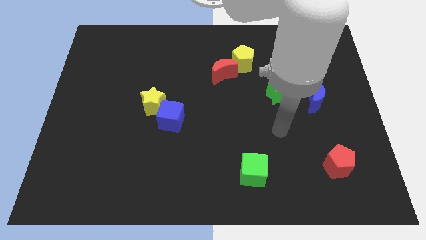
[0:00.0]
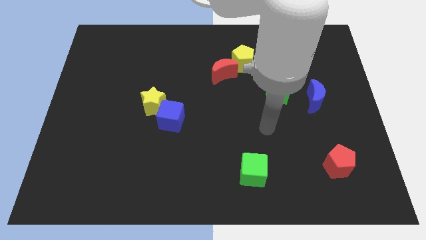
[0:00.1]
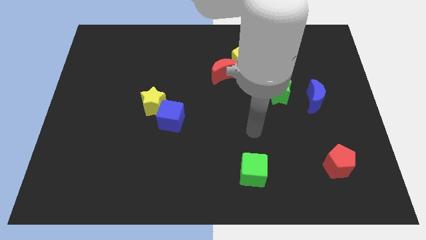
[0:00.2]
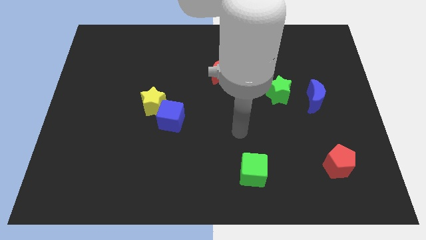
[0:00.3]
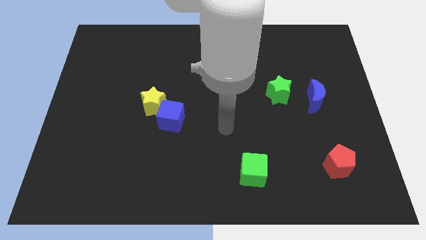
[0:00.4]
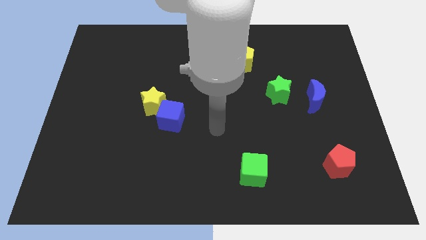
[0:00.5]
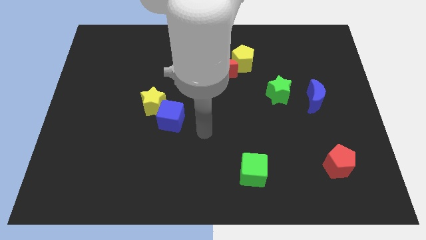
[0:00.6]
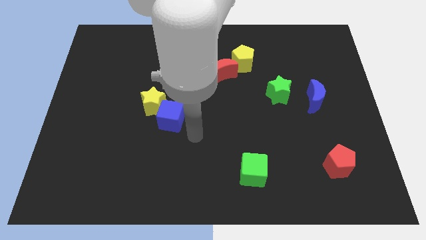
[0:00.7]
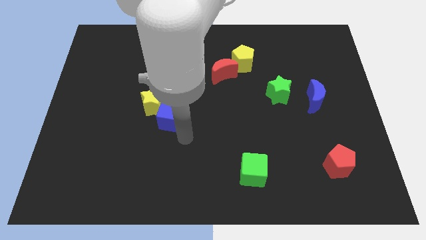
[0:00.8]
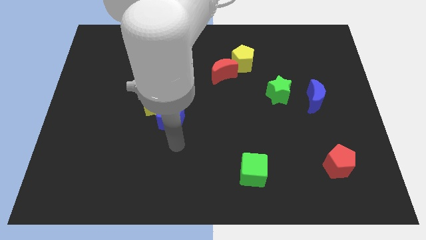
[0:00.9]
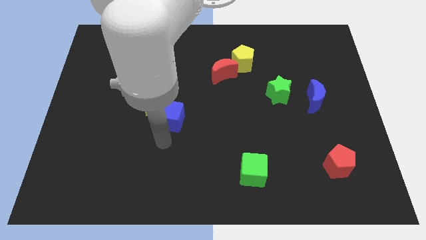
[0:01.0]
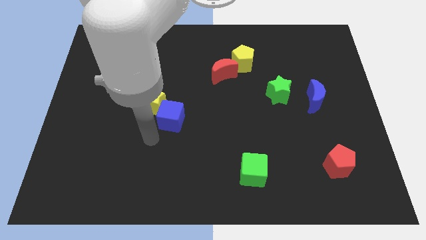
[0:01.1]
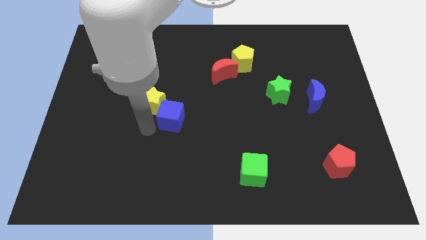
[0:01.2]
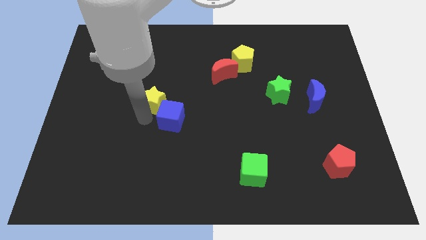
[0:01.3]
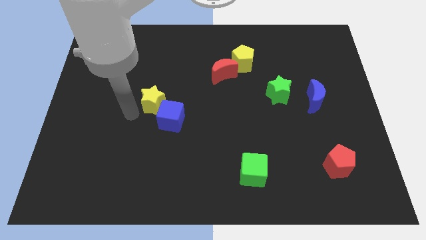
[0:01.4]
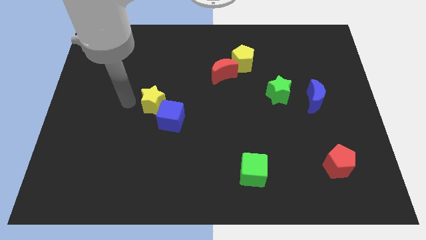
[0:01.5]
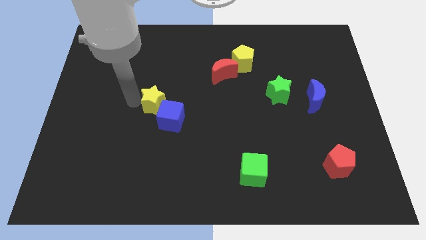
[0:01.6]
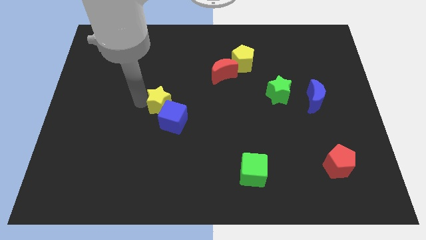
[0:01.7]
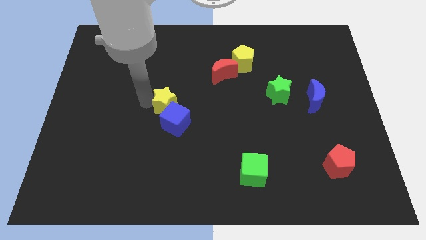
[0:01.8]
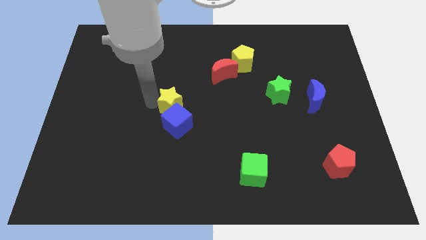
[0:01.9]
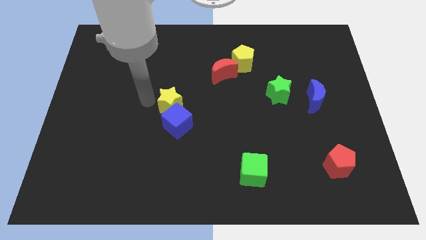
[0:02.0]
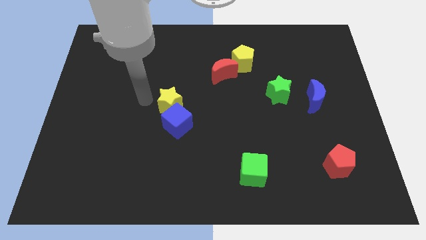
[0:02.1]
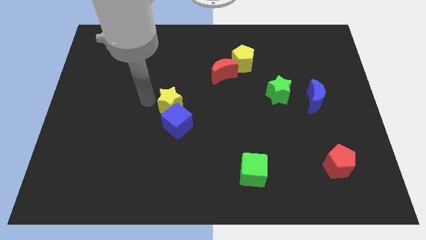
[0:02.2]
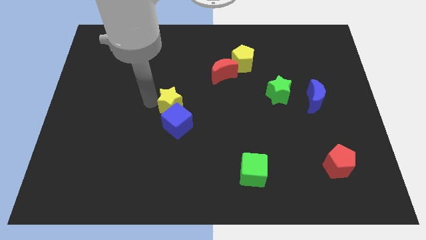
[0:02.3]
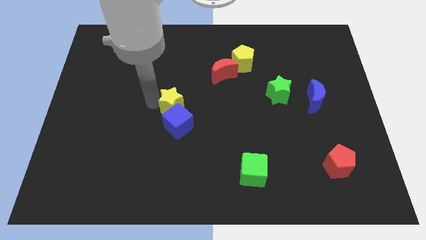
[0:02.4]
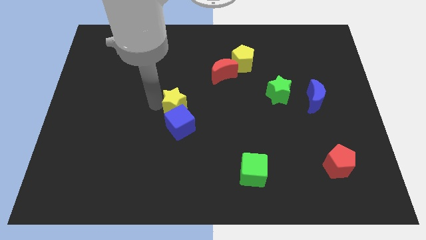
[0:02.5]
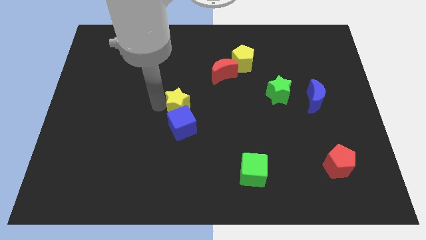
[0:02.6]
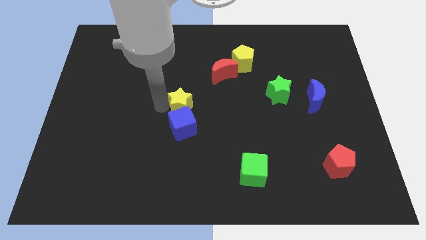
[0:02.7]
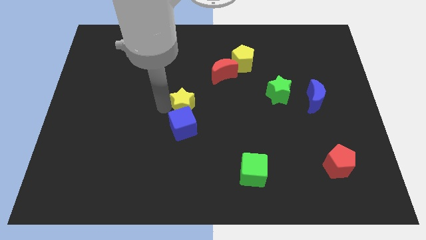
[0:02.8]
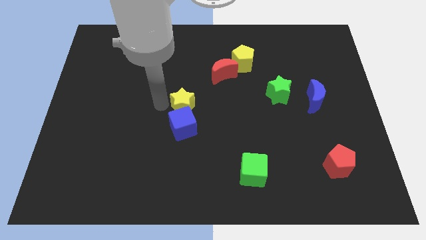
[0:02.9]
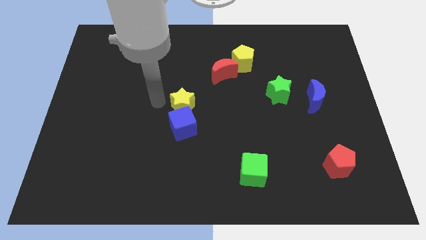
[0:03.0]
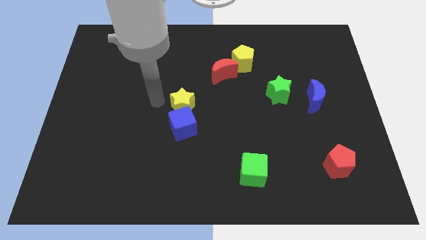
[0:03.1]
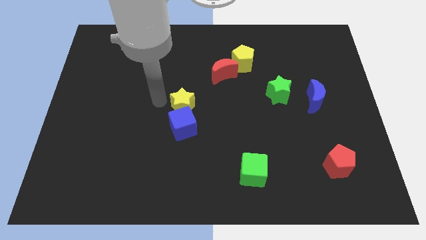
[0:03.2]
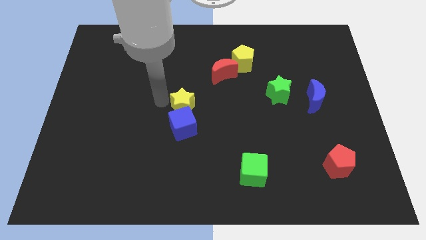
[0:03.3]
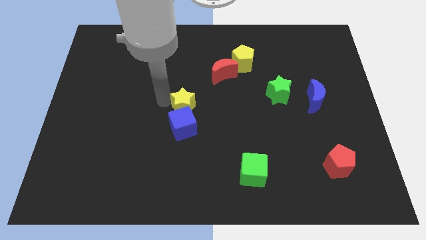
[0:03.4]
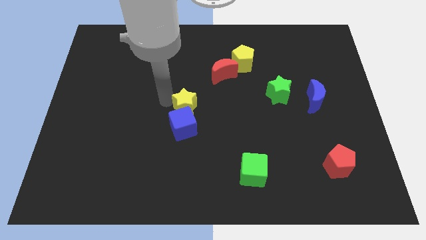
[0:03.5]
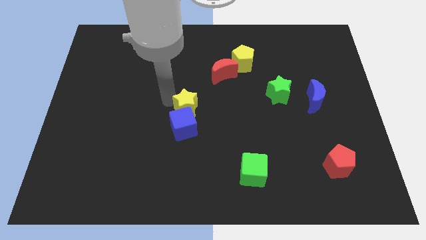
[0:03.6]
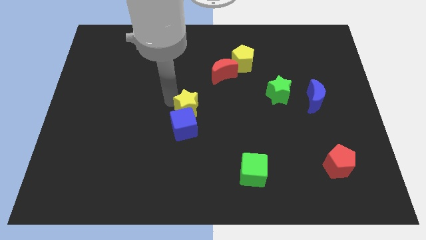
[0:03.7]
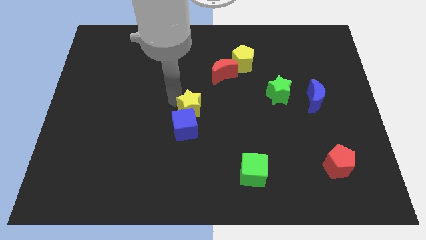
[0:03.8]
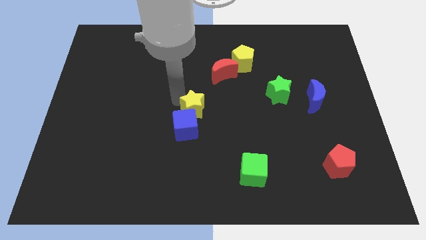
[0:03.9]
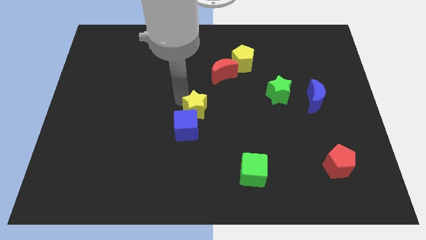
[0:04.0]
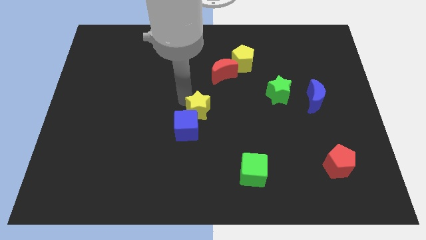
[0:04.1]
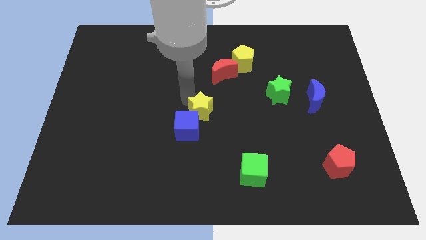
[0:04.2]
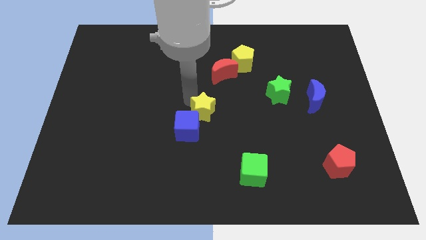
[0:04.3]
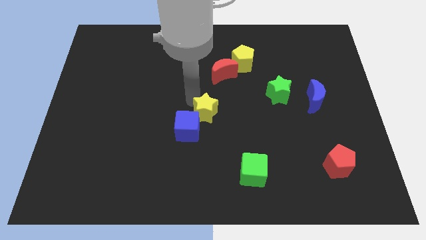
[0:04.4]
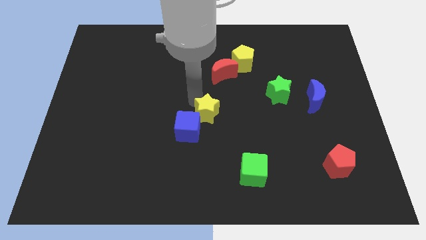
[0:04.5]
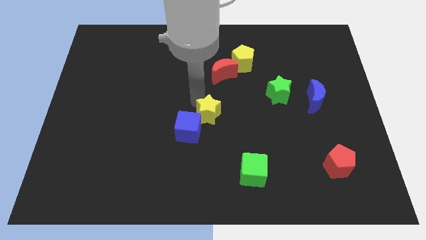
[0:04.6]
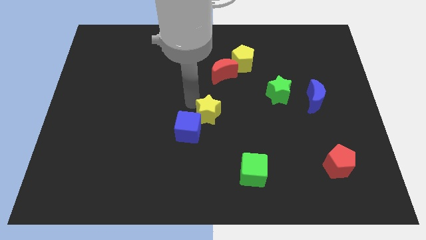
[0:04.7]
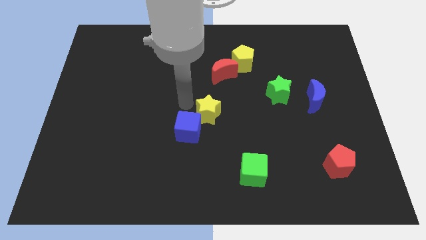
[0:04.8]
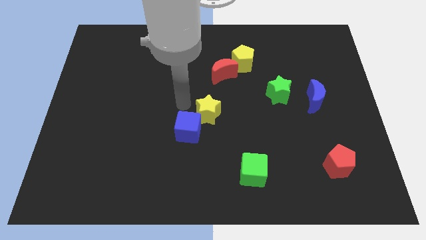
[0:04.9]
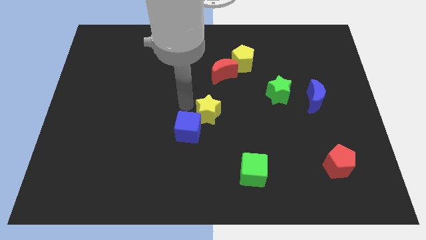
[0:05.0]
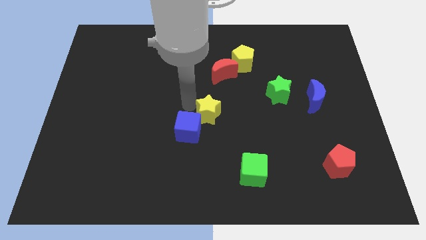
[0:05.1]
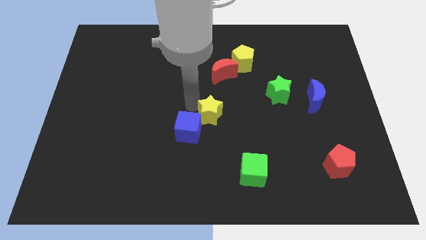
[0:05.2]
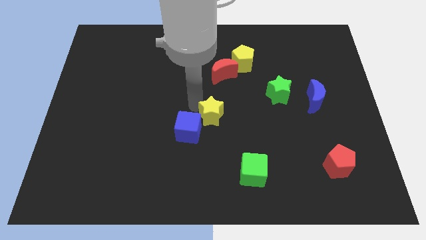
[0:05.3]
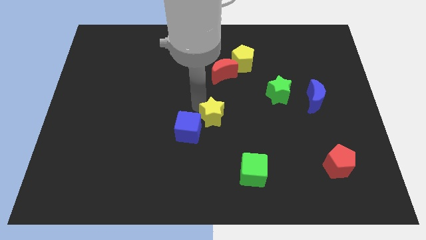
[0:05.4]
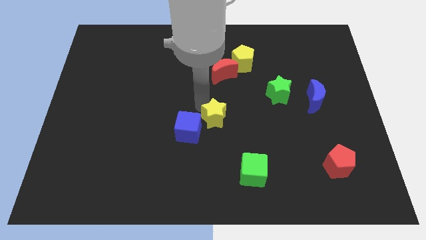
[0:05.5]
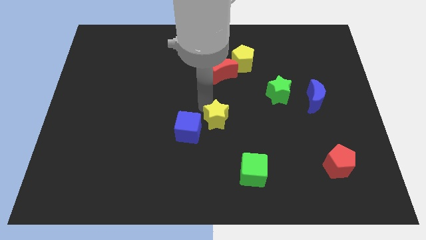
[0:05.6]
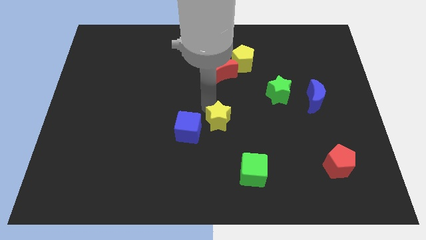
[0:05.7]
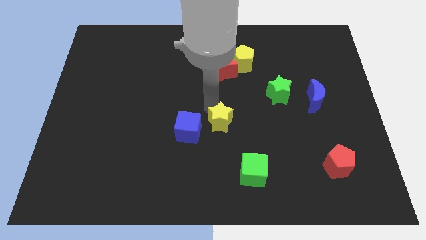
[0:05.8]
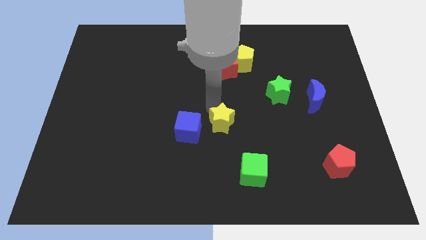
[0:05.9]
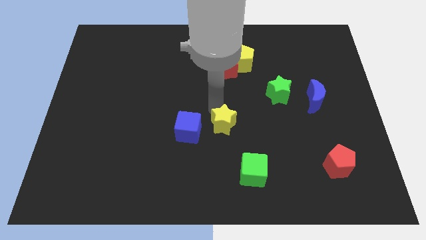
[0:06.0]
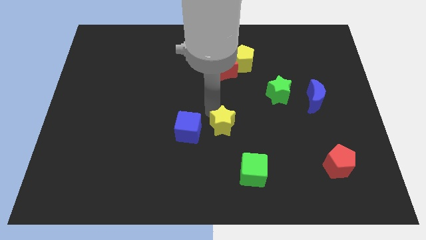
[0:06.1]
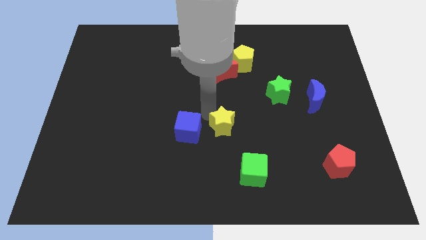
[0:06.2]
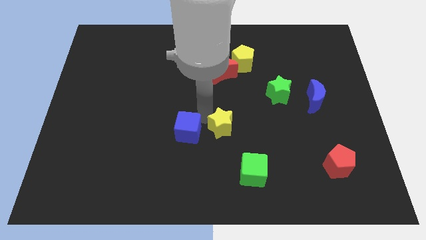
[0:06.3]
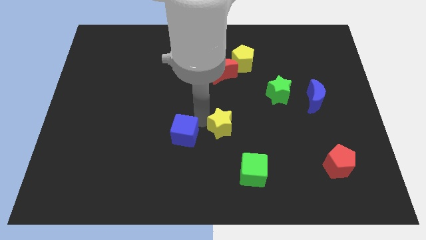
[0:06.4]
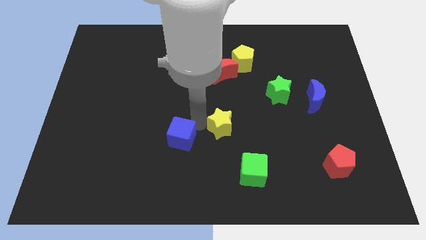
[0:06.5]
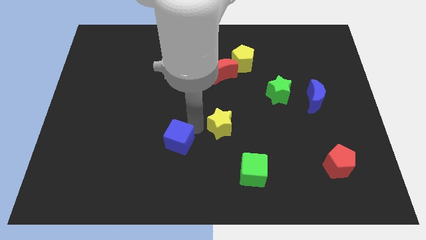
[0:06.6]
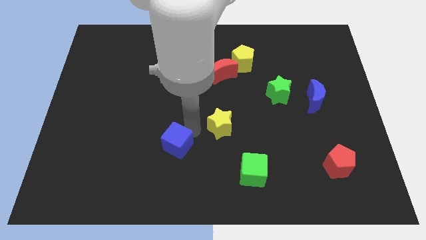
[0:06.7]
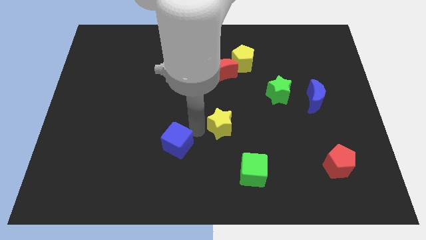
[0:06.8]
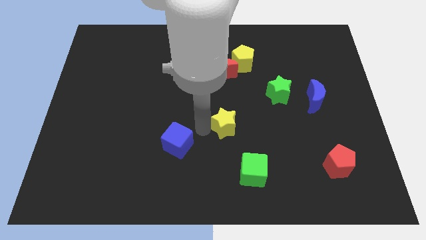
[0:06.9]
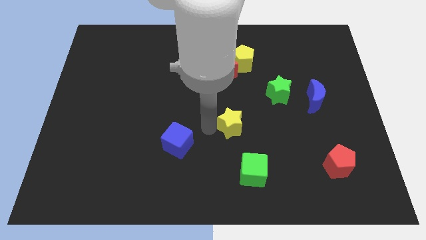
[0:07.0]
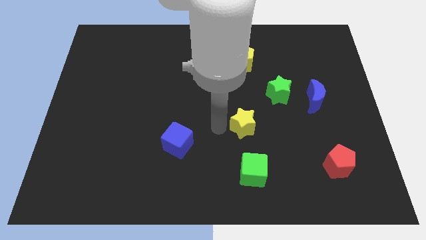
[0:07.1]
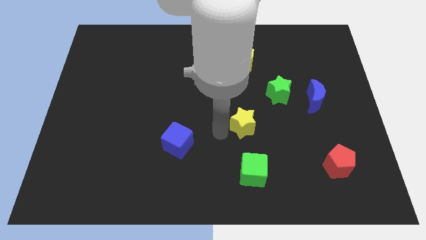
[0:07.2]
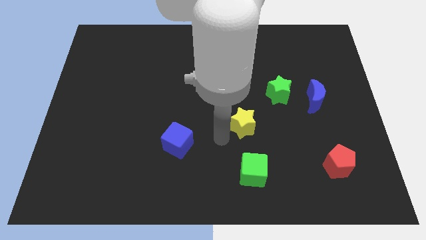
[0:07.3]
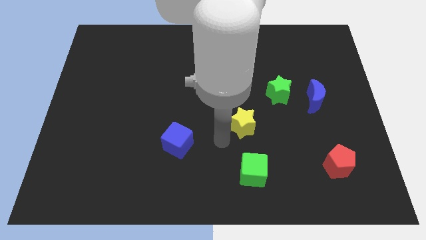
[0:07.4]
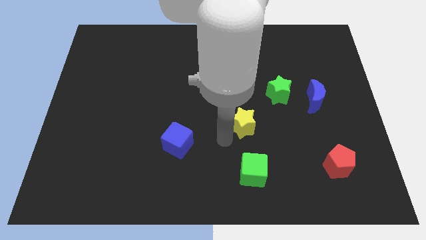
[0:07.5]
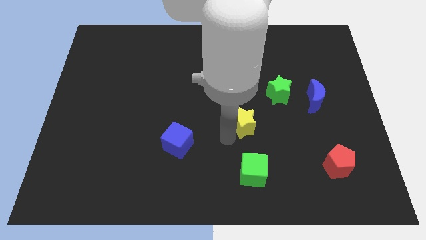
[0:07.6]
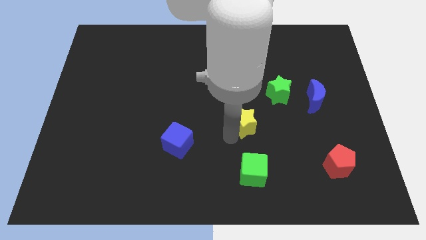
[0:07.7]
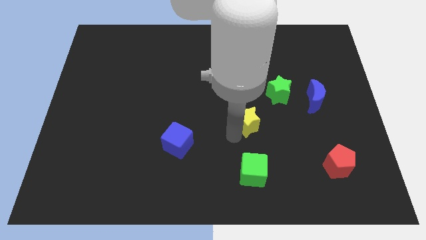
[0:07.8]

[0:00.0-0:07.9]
slide the yellow star to the right

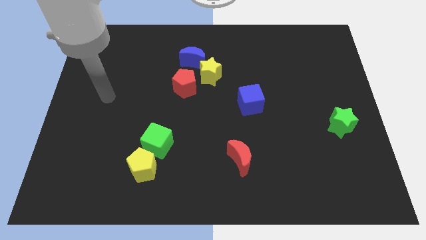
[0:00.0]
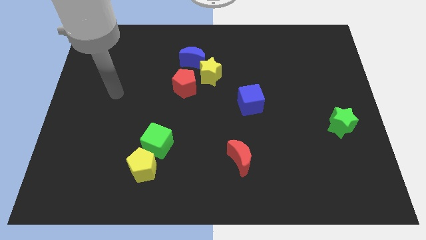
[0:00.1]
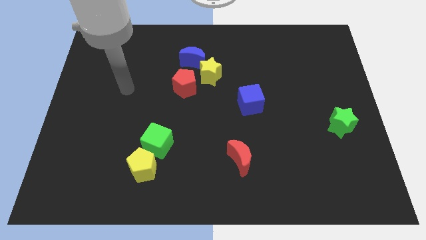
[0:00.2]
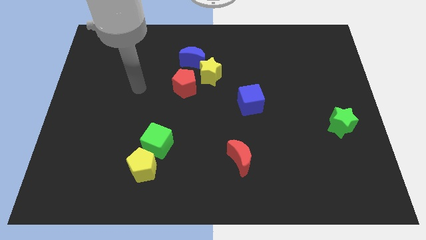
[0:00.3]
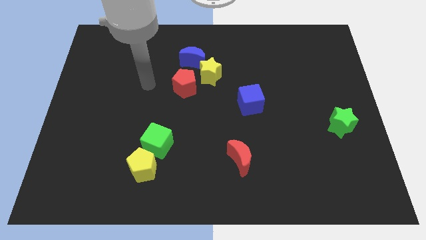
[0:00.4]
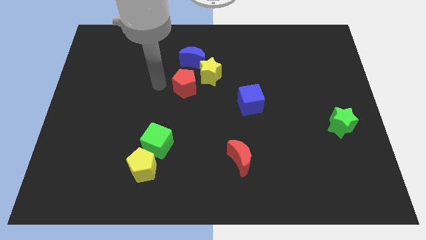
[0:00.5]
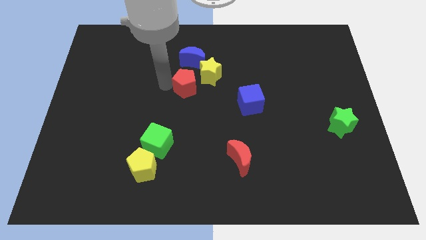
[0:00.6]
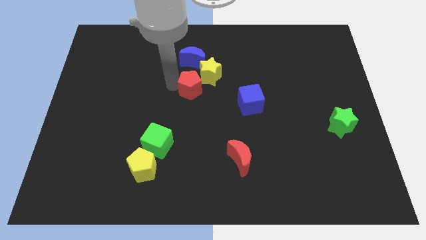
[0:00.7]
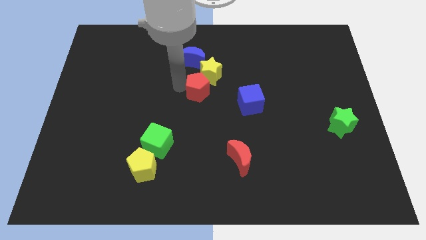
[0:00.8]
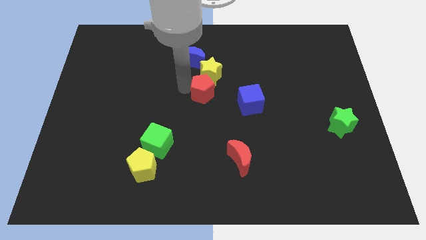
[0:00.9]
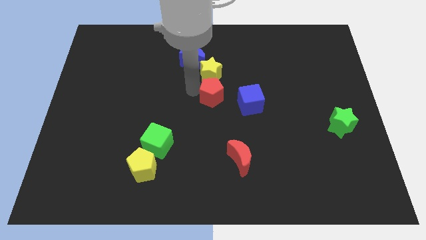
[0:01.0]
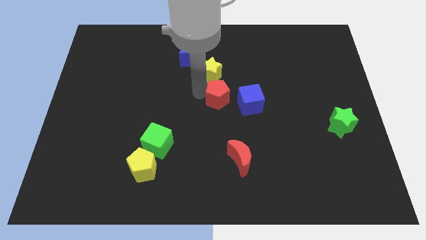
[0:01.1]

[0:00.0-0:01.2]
slide the red pentagon to the right a little bit
